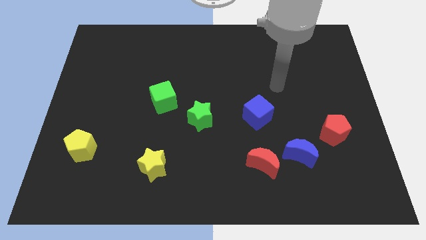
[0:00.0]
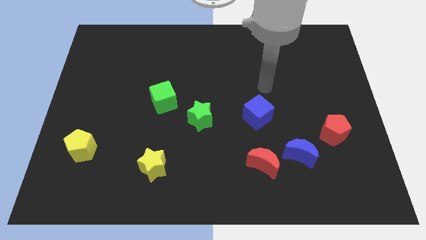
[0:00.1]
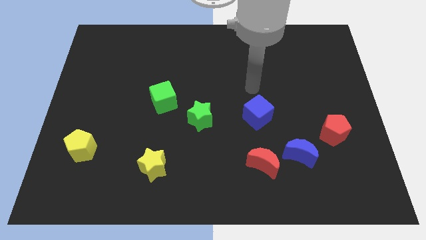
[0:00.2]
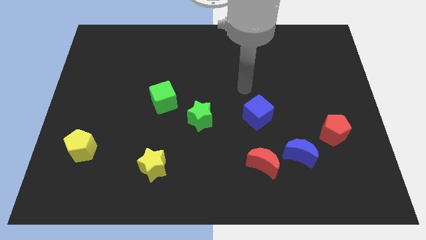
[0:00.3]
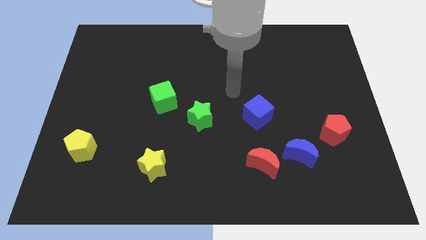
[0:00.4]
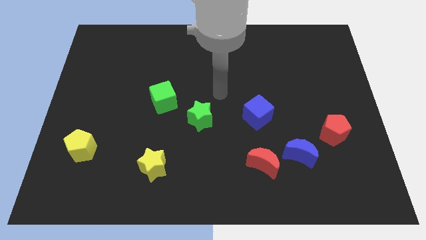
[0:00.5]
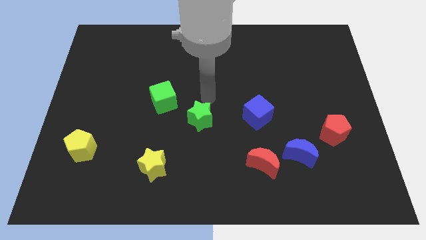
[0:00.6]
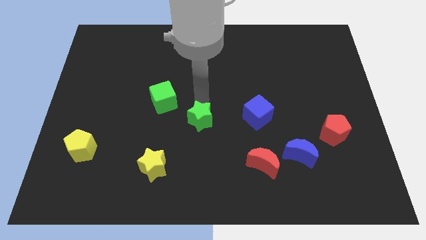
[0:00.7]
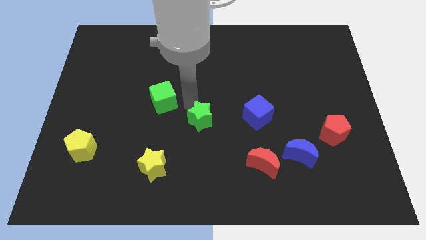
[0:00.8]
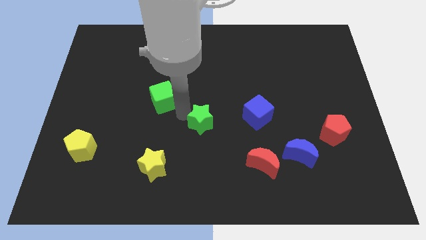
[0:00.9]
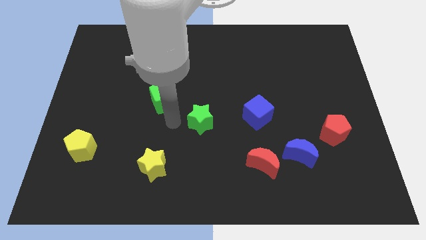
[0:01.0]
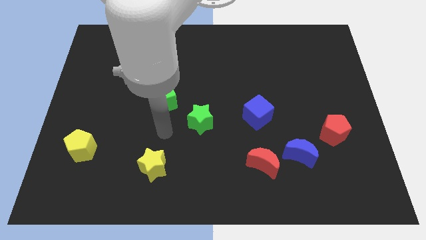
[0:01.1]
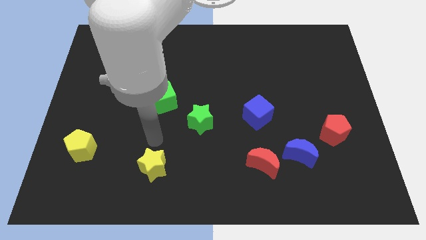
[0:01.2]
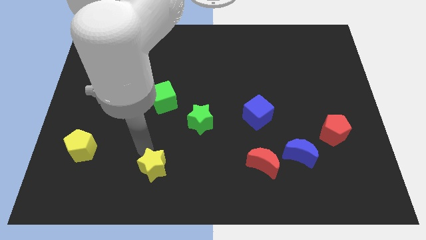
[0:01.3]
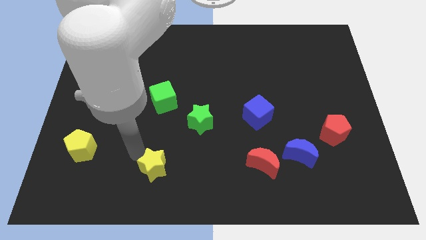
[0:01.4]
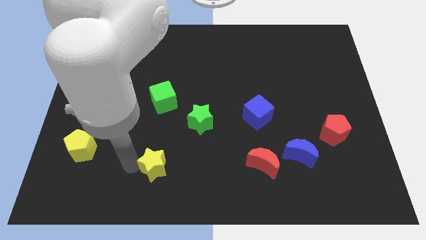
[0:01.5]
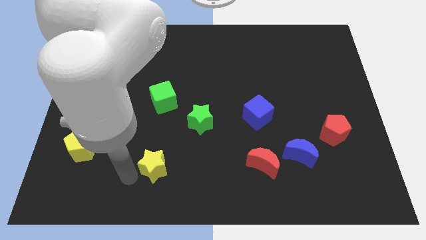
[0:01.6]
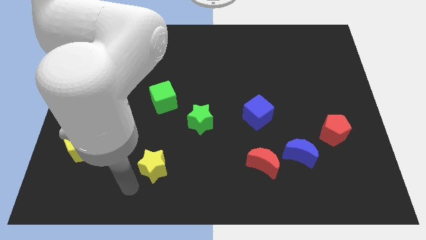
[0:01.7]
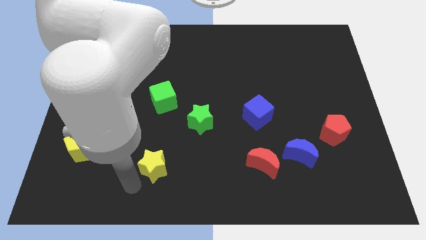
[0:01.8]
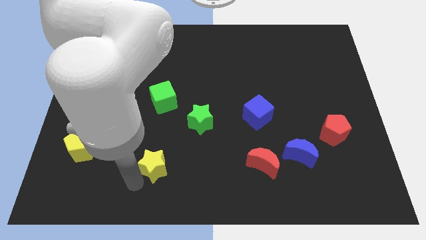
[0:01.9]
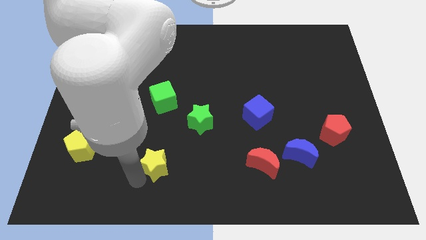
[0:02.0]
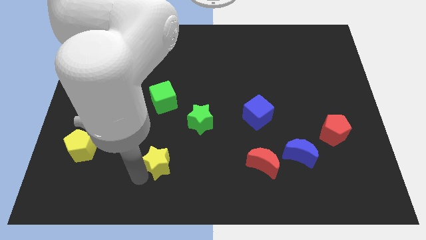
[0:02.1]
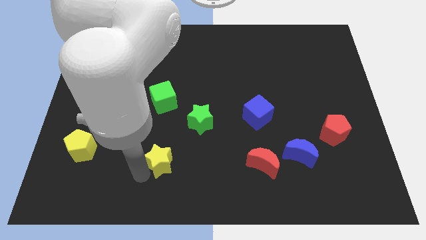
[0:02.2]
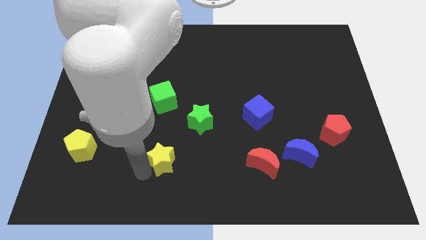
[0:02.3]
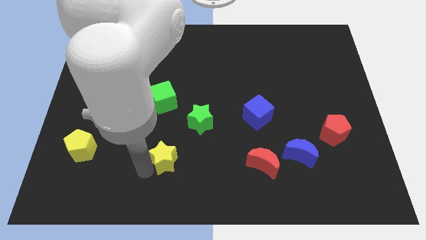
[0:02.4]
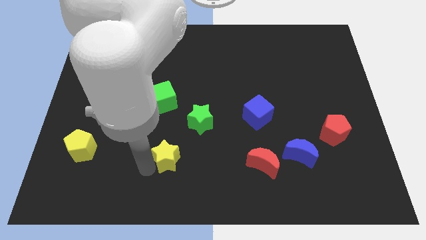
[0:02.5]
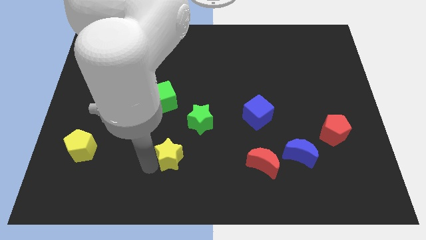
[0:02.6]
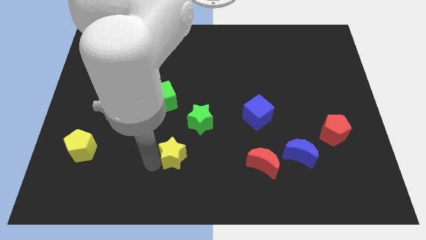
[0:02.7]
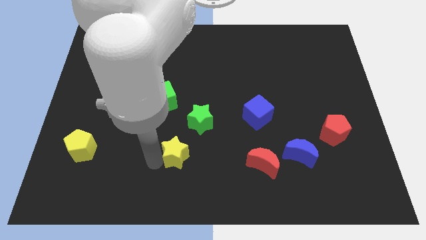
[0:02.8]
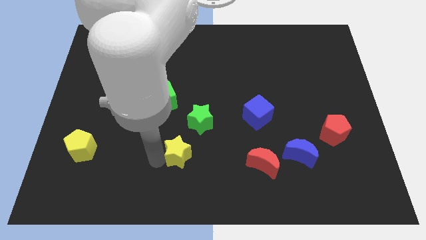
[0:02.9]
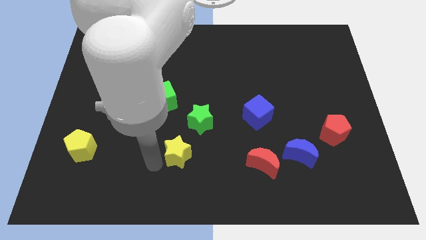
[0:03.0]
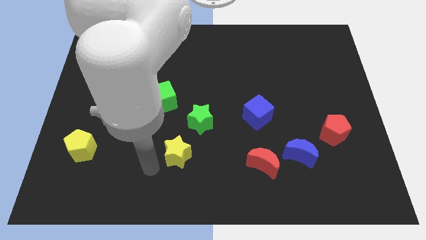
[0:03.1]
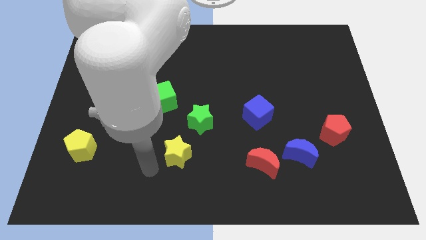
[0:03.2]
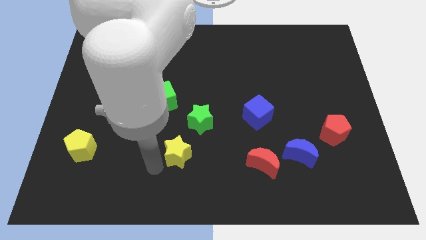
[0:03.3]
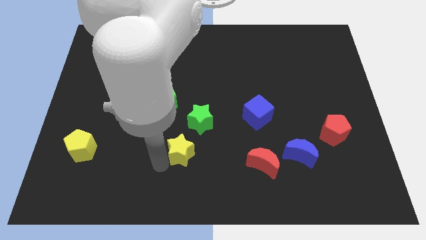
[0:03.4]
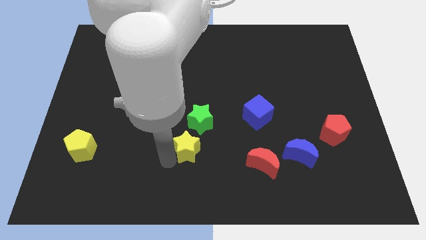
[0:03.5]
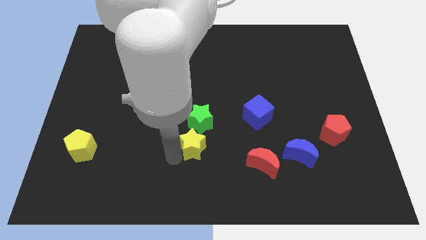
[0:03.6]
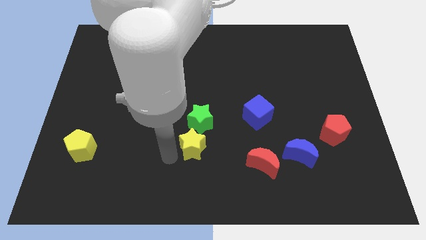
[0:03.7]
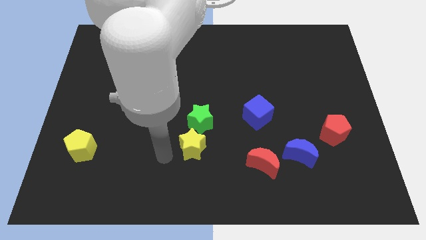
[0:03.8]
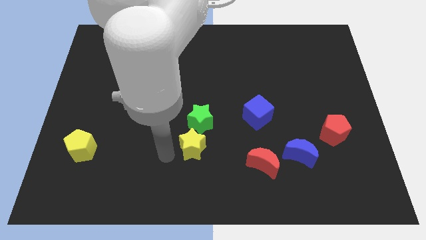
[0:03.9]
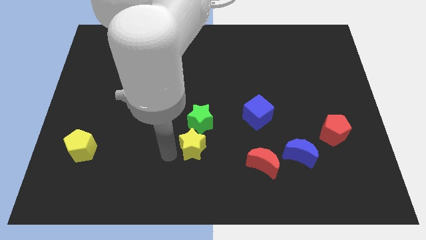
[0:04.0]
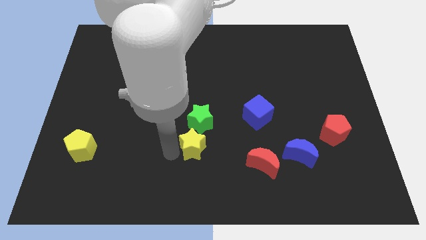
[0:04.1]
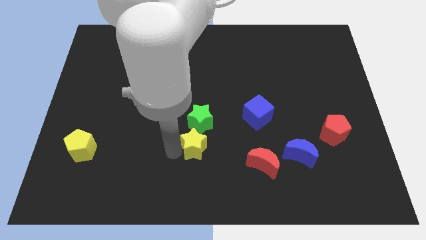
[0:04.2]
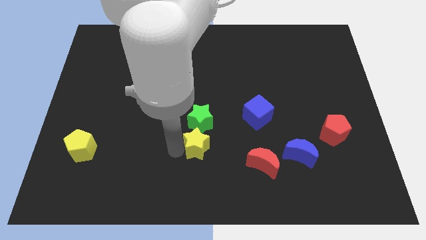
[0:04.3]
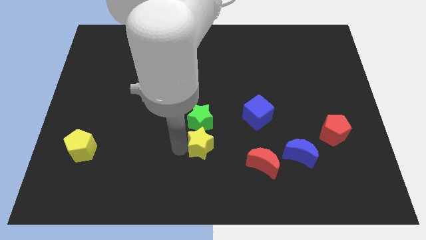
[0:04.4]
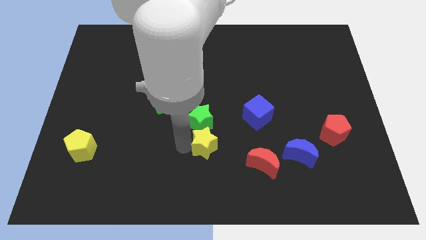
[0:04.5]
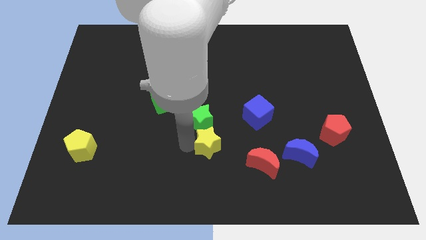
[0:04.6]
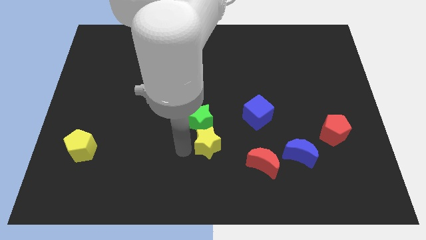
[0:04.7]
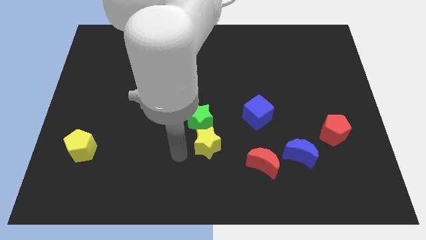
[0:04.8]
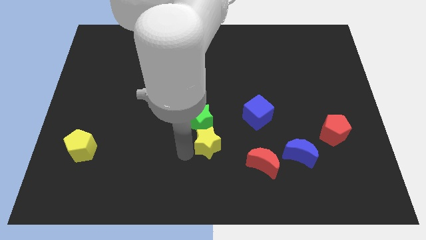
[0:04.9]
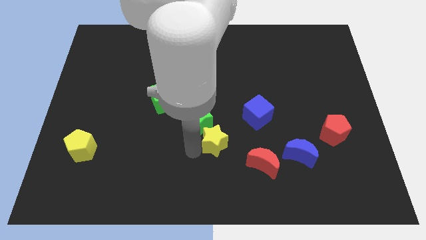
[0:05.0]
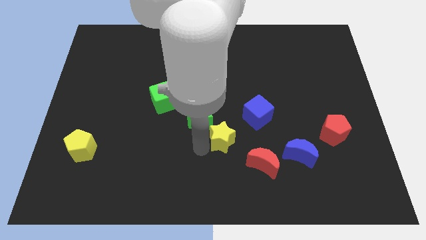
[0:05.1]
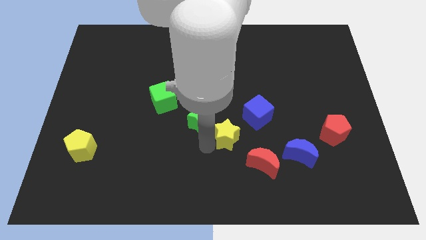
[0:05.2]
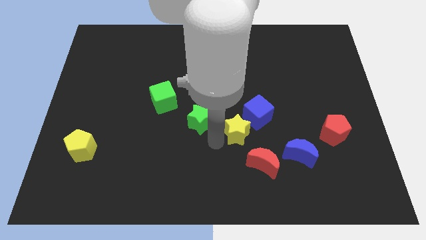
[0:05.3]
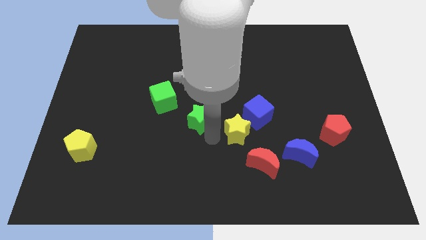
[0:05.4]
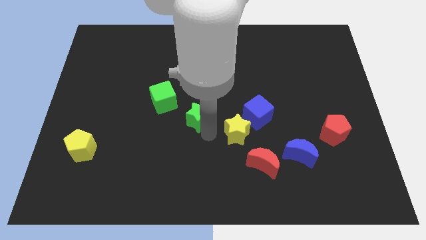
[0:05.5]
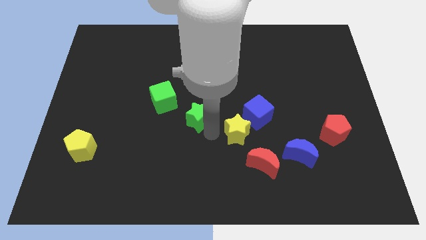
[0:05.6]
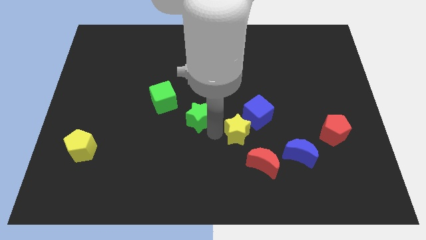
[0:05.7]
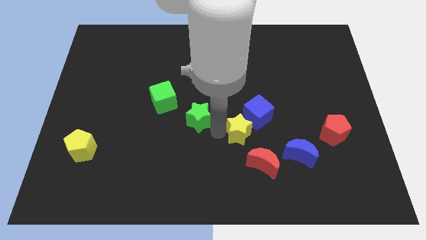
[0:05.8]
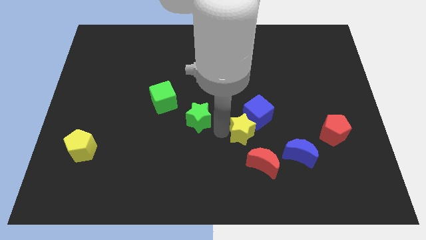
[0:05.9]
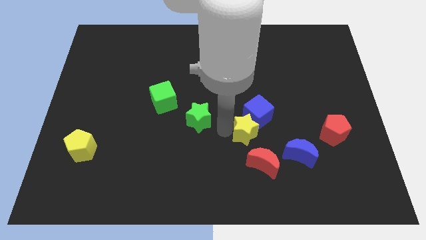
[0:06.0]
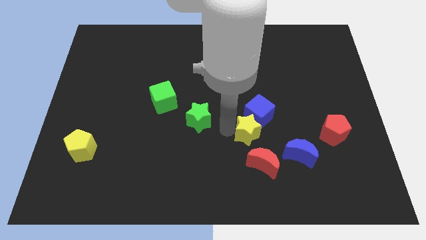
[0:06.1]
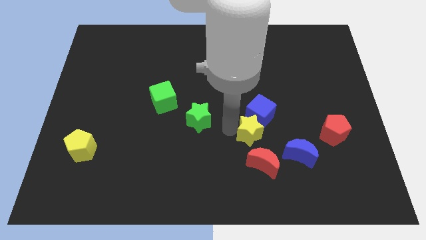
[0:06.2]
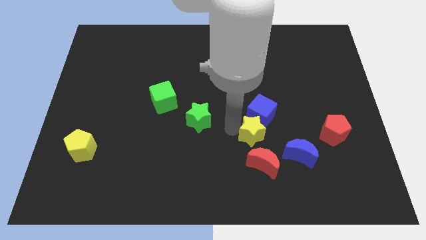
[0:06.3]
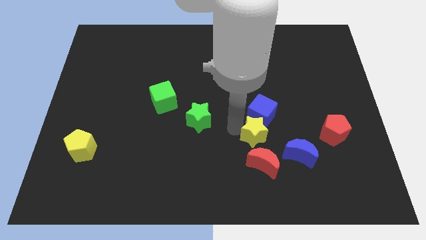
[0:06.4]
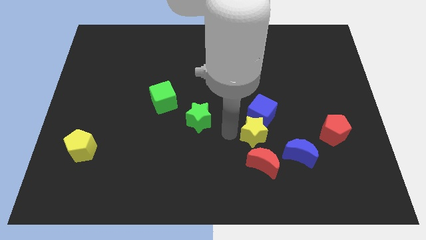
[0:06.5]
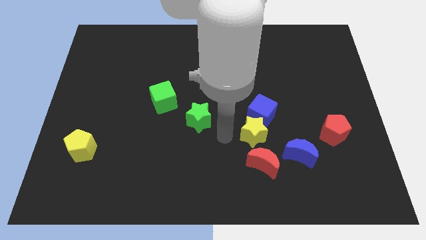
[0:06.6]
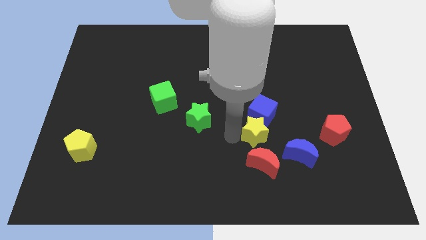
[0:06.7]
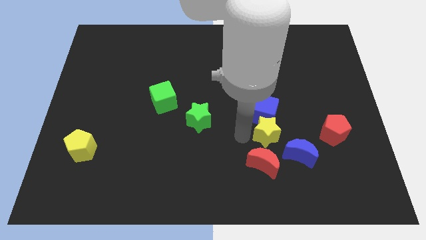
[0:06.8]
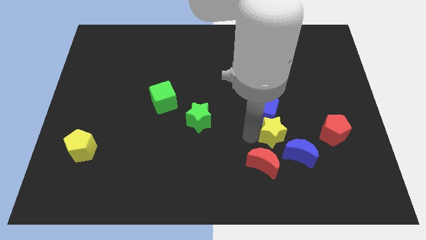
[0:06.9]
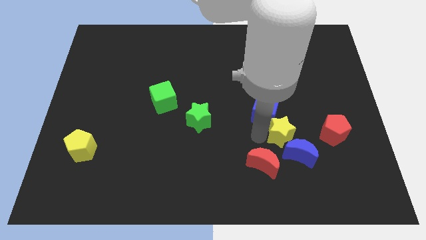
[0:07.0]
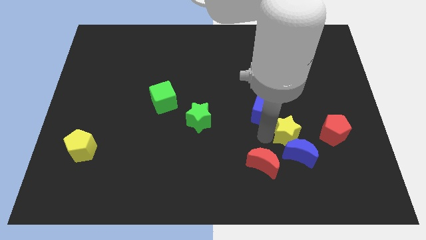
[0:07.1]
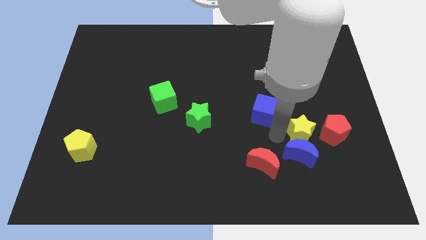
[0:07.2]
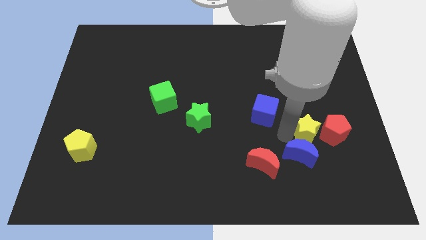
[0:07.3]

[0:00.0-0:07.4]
put the yellow star to the red pentagon

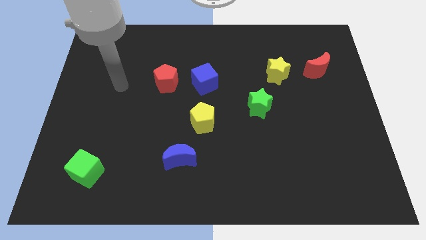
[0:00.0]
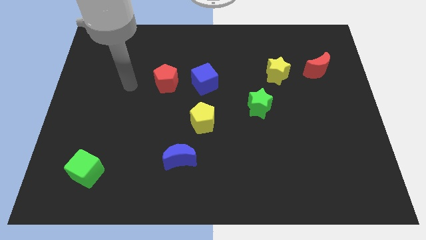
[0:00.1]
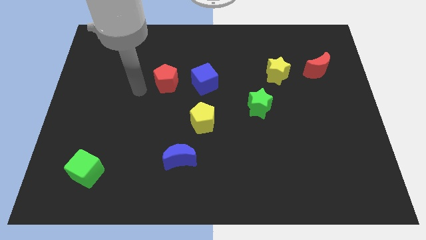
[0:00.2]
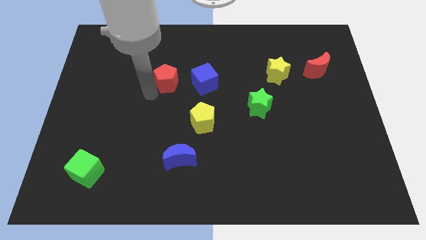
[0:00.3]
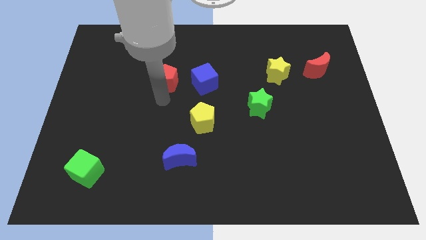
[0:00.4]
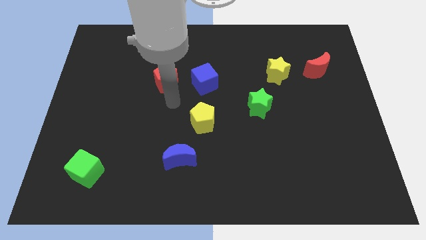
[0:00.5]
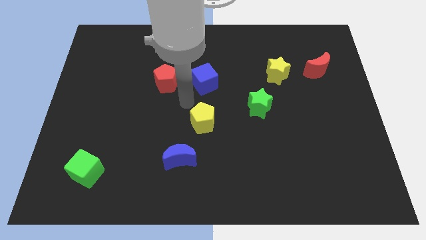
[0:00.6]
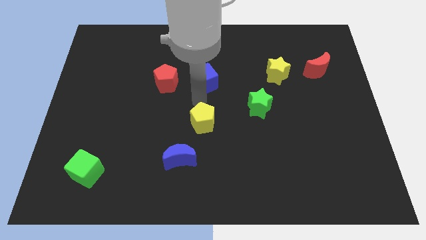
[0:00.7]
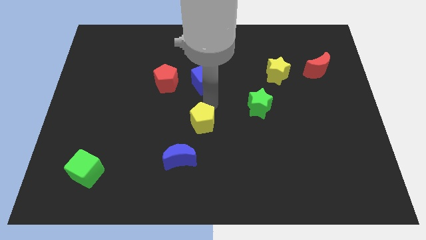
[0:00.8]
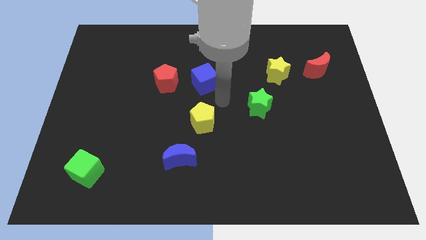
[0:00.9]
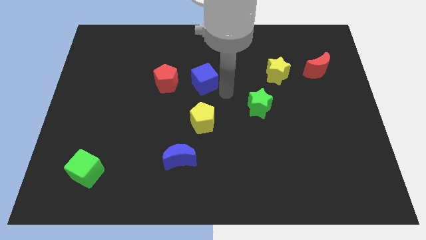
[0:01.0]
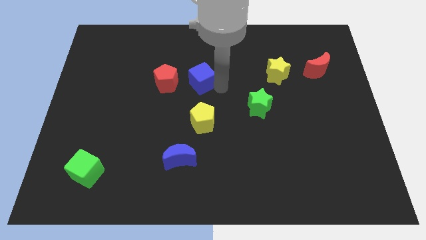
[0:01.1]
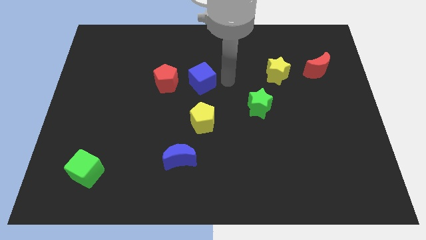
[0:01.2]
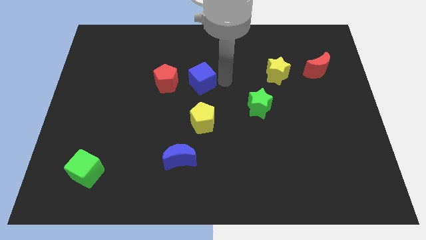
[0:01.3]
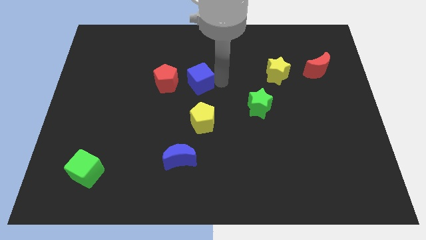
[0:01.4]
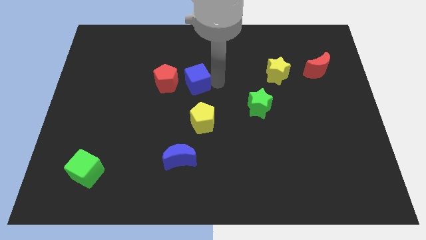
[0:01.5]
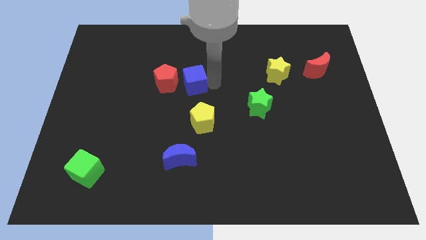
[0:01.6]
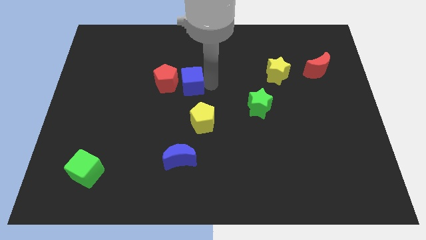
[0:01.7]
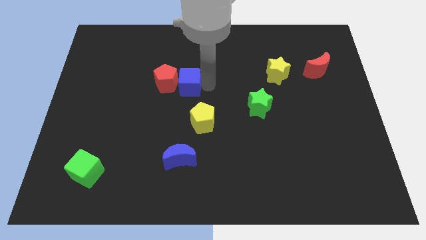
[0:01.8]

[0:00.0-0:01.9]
move the blue cube to the red pentagon
